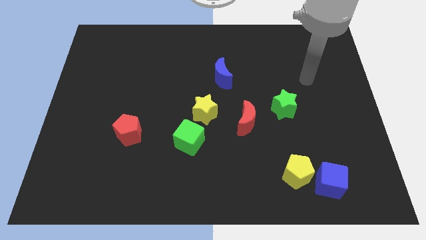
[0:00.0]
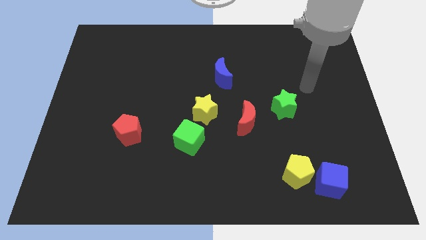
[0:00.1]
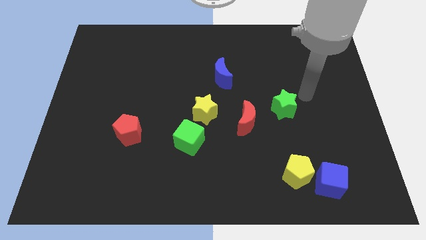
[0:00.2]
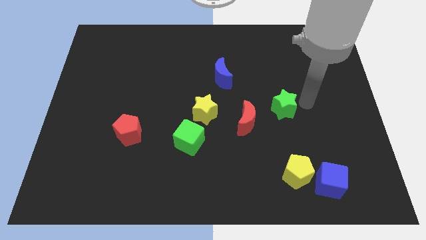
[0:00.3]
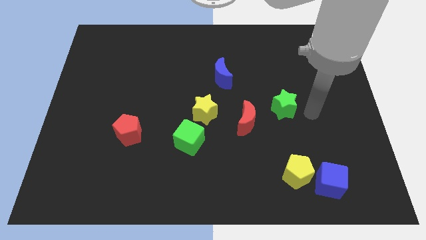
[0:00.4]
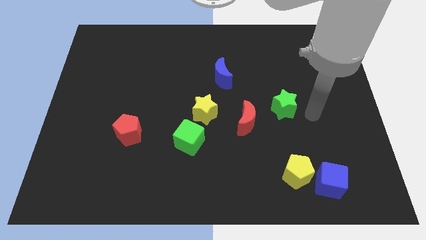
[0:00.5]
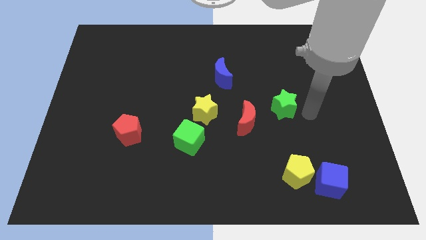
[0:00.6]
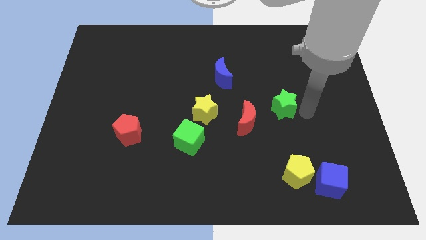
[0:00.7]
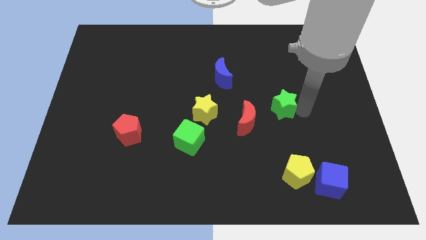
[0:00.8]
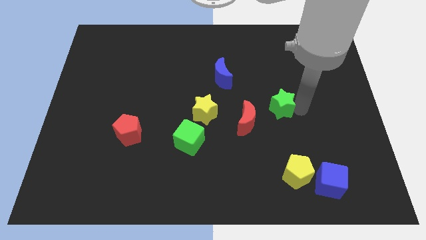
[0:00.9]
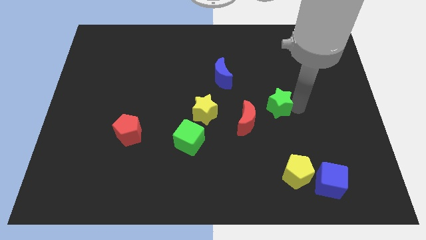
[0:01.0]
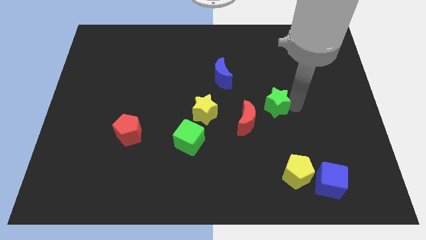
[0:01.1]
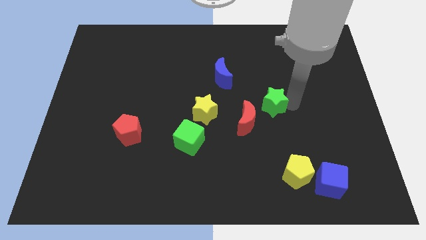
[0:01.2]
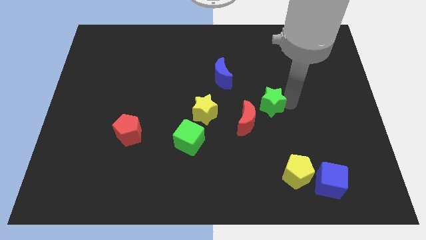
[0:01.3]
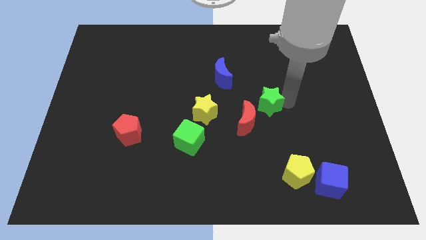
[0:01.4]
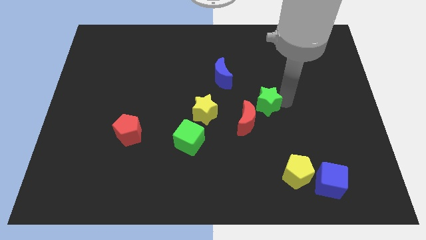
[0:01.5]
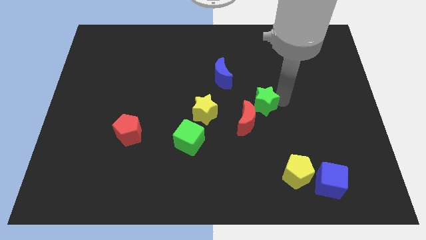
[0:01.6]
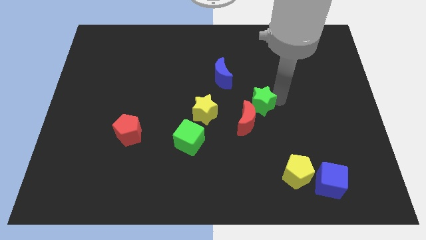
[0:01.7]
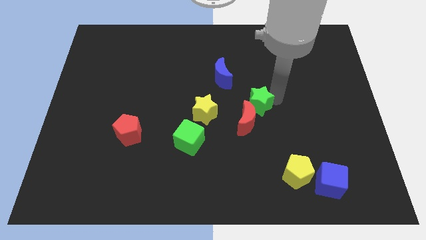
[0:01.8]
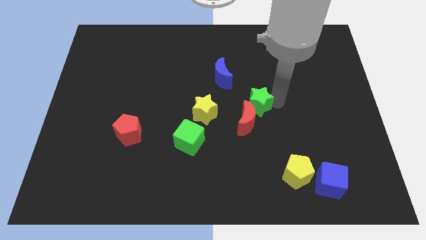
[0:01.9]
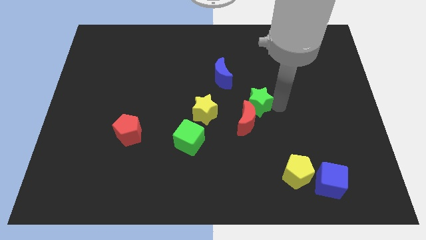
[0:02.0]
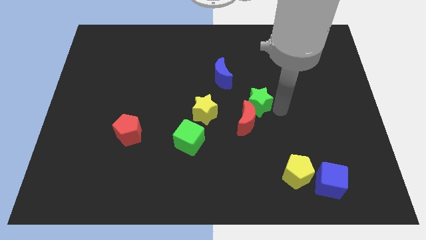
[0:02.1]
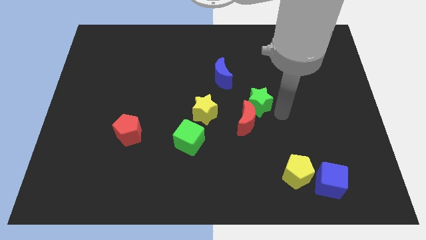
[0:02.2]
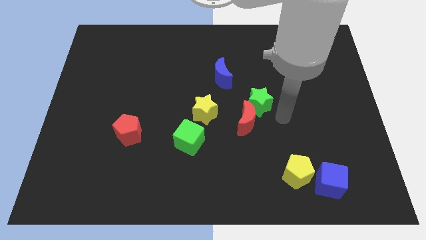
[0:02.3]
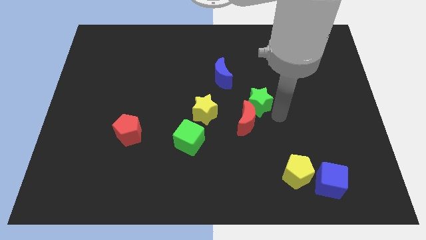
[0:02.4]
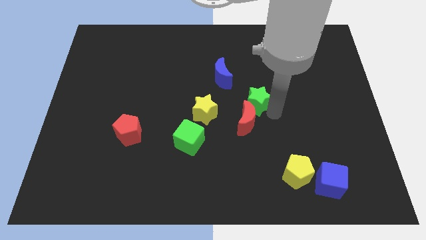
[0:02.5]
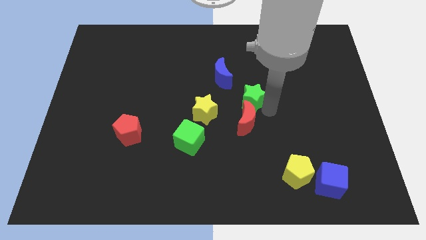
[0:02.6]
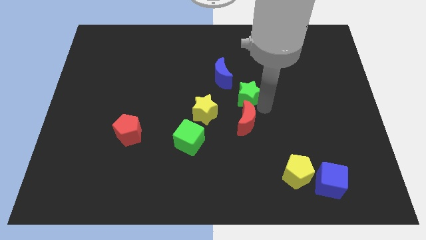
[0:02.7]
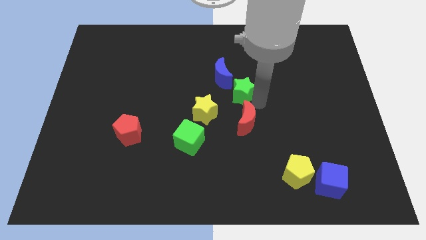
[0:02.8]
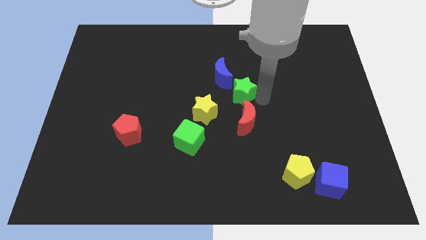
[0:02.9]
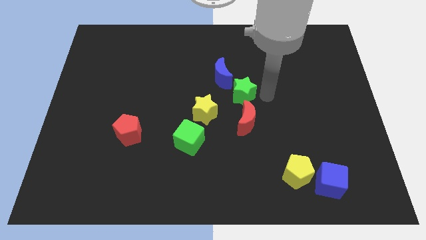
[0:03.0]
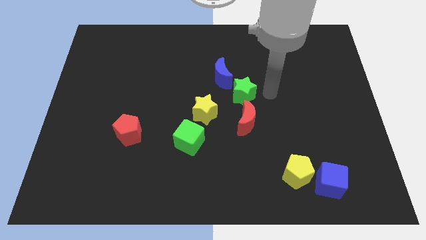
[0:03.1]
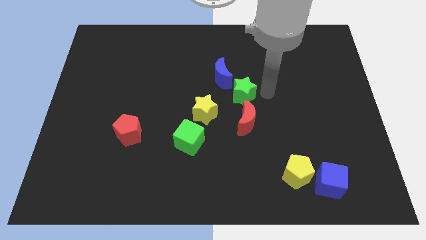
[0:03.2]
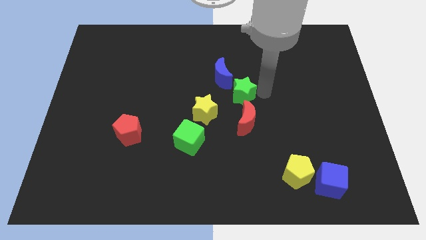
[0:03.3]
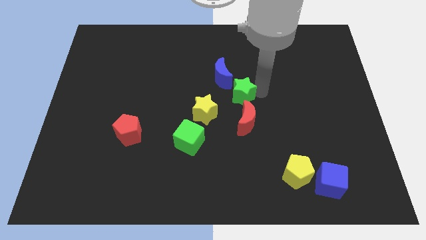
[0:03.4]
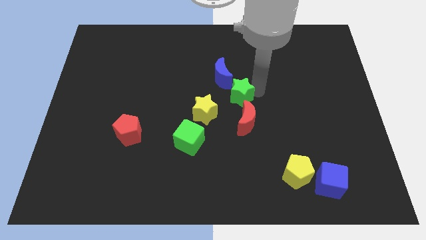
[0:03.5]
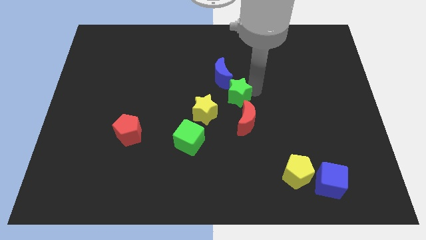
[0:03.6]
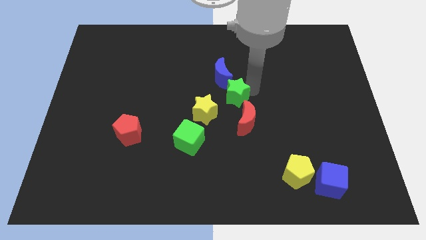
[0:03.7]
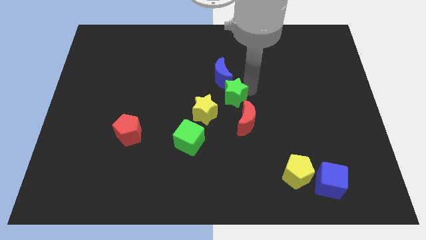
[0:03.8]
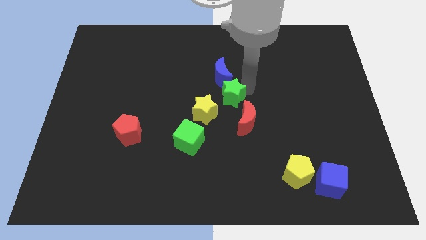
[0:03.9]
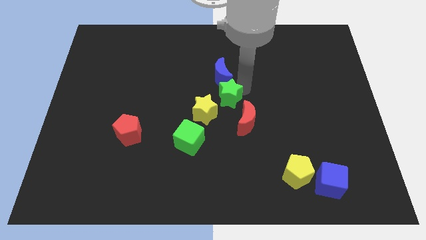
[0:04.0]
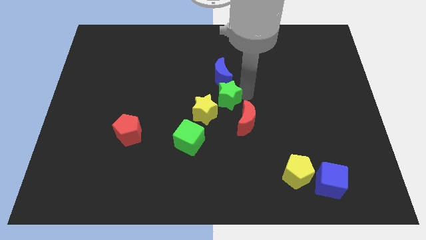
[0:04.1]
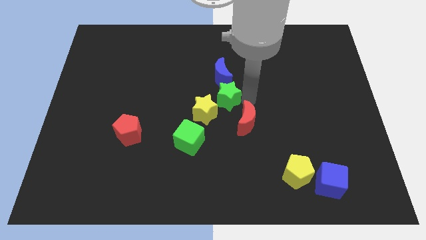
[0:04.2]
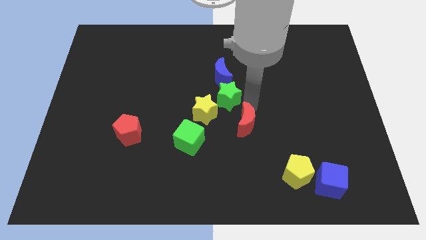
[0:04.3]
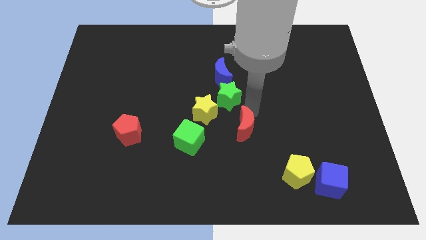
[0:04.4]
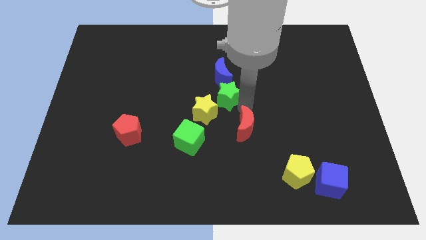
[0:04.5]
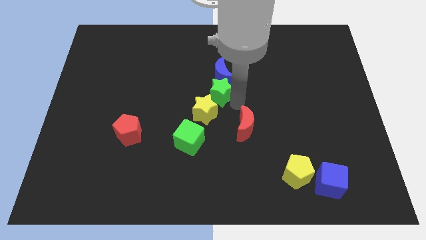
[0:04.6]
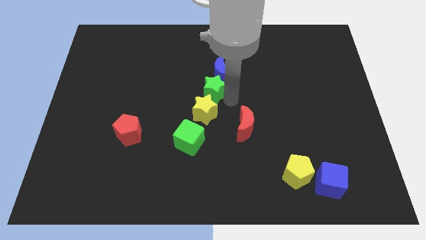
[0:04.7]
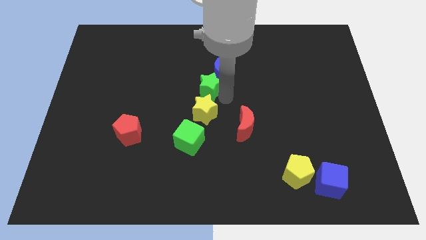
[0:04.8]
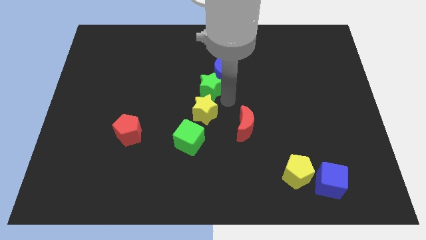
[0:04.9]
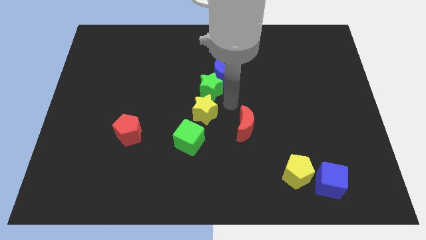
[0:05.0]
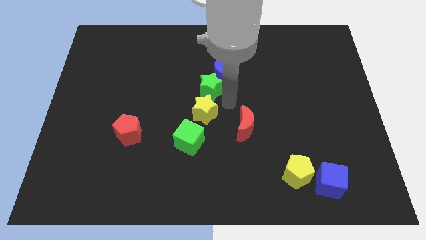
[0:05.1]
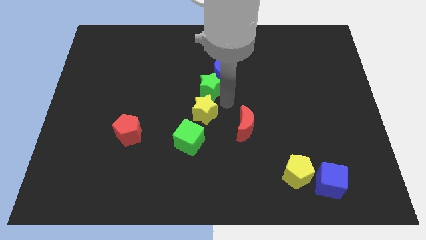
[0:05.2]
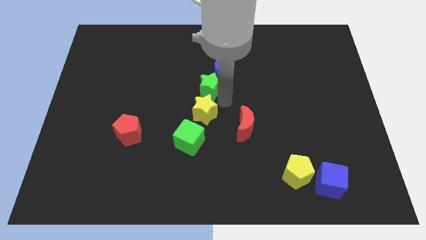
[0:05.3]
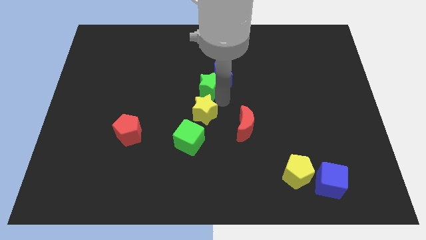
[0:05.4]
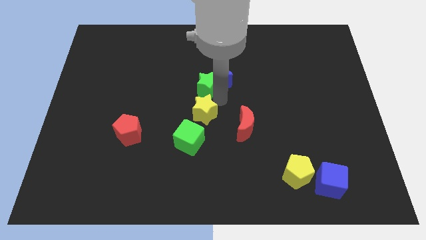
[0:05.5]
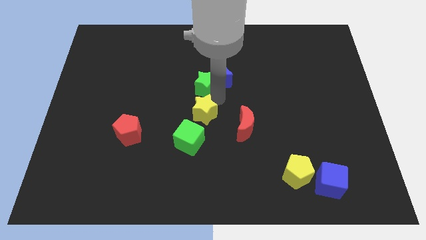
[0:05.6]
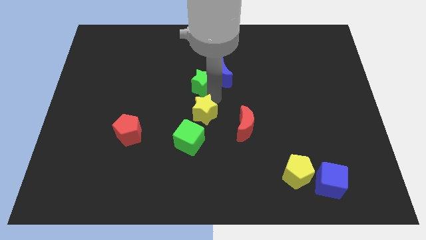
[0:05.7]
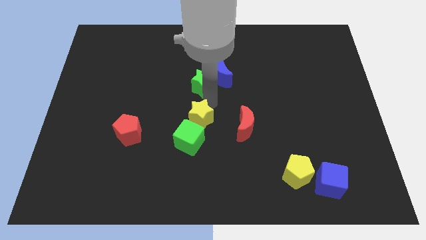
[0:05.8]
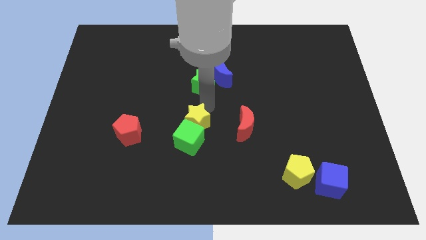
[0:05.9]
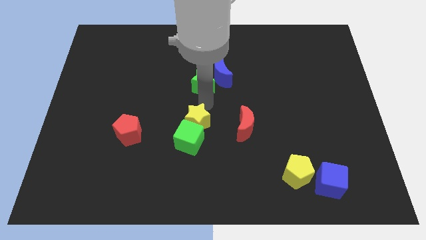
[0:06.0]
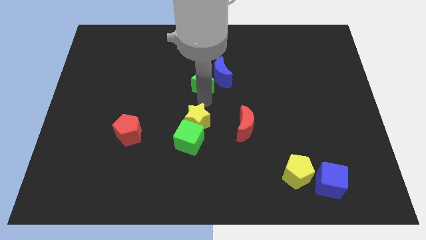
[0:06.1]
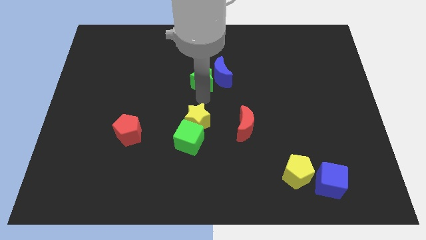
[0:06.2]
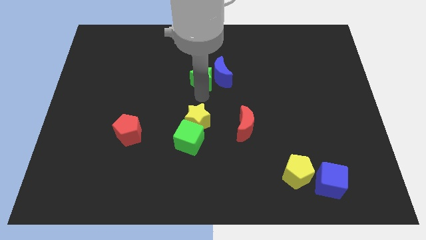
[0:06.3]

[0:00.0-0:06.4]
put the green star to the top left side of the blue moon

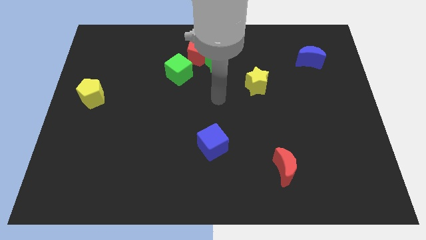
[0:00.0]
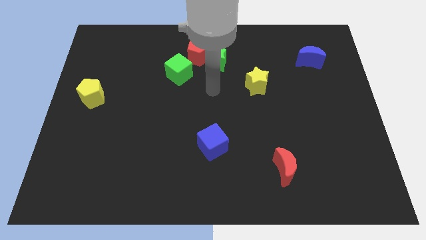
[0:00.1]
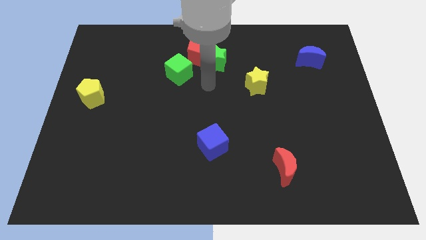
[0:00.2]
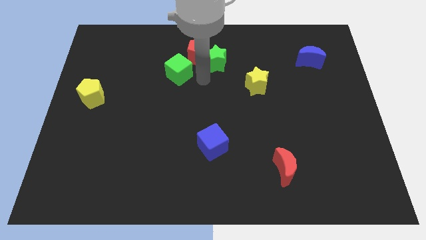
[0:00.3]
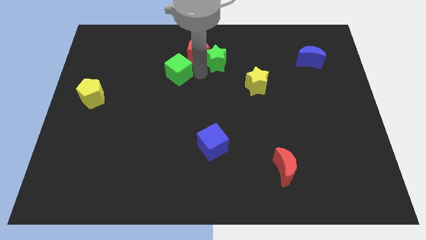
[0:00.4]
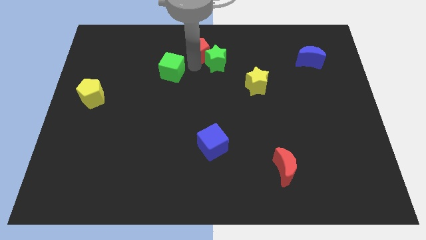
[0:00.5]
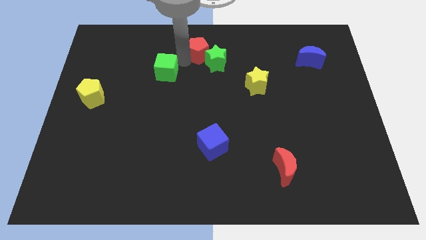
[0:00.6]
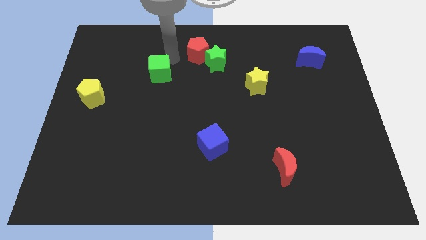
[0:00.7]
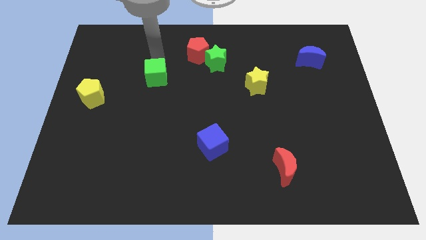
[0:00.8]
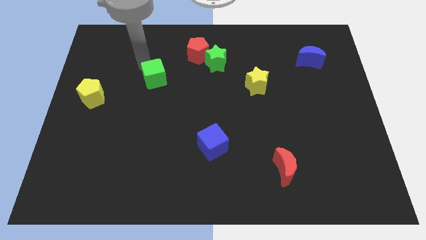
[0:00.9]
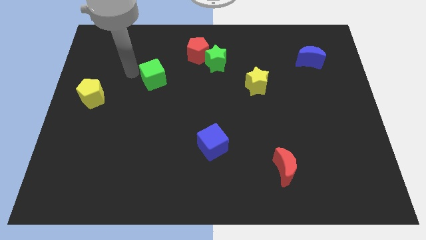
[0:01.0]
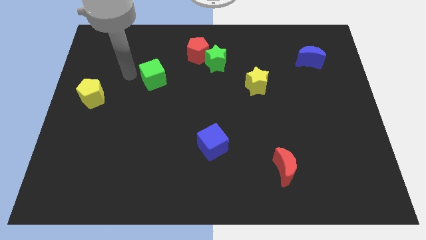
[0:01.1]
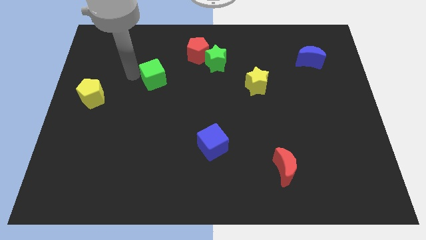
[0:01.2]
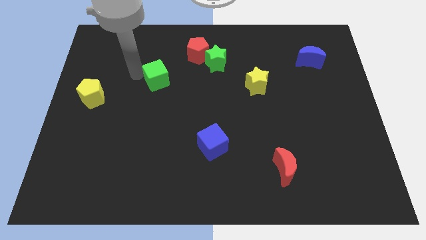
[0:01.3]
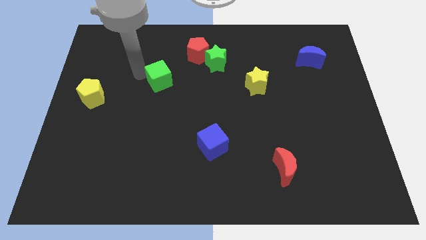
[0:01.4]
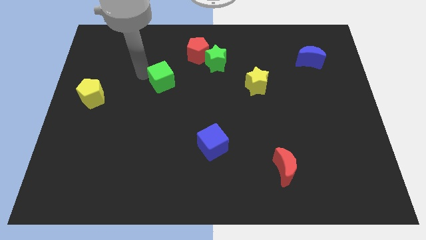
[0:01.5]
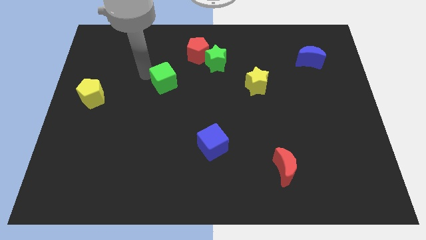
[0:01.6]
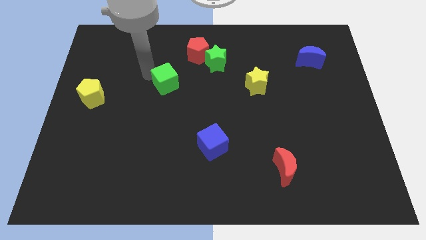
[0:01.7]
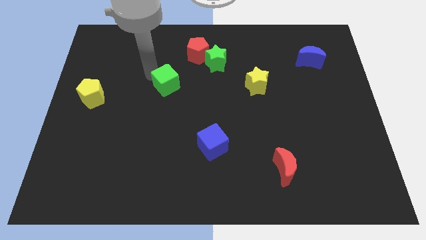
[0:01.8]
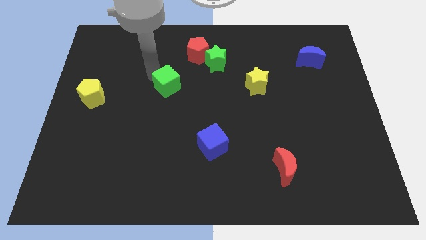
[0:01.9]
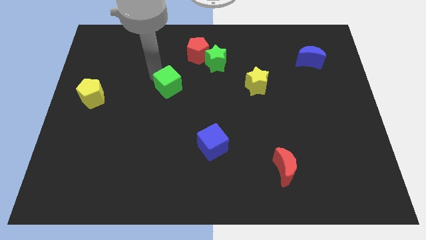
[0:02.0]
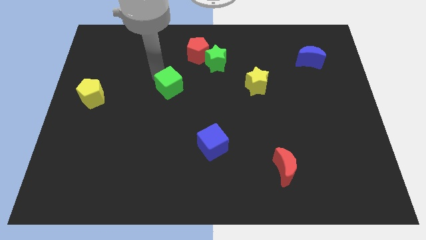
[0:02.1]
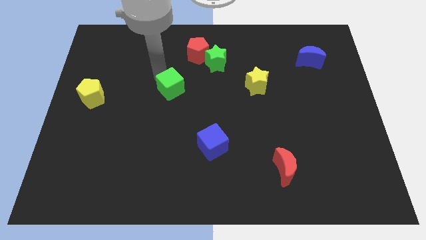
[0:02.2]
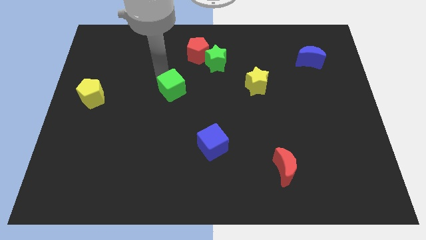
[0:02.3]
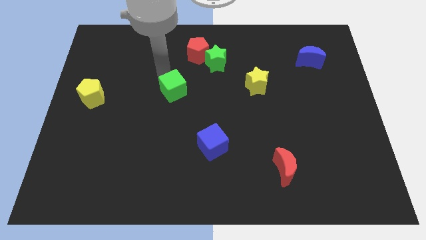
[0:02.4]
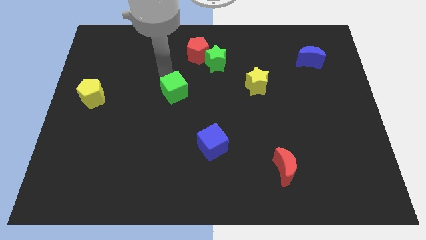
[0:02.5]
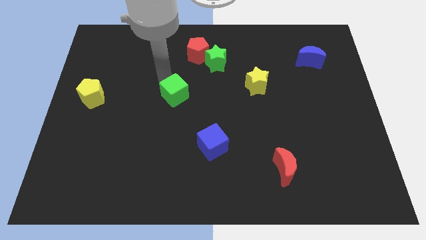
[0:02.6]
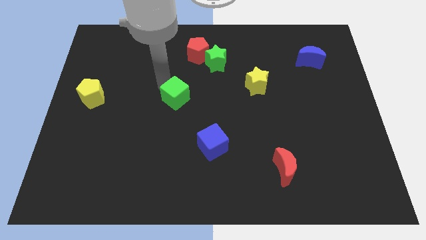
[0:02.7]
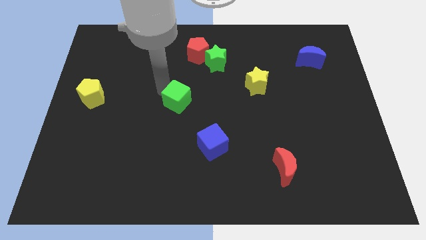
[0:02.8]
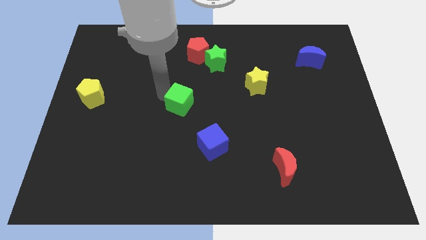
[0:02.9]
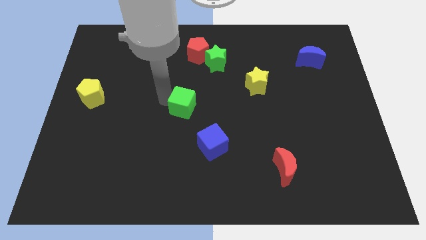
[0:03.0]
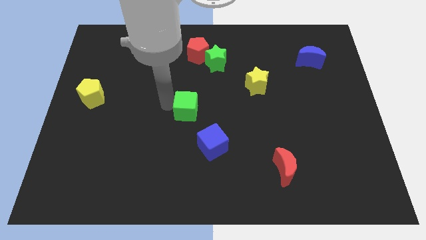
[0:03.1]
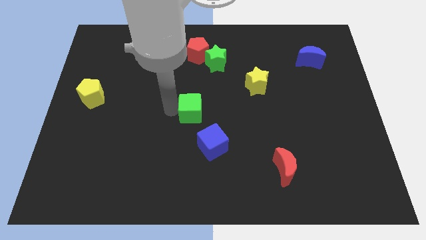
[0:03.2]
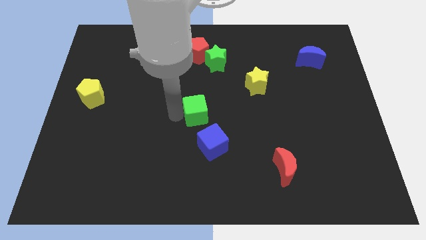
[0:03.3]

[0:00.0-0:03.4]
move the green cube to the top side of the blue cube
